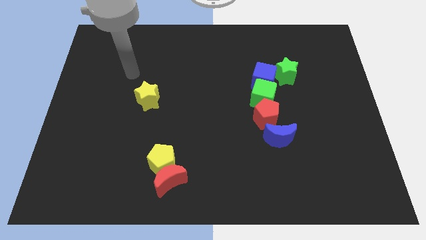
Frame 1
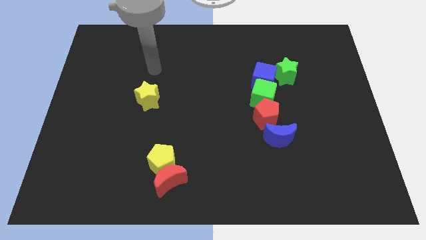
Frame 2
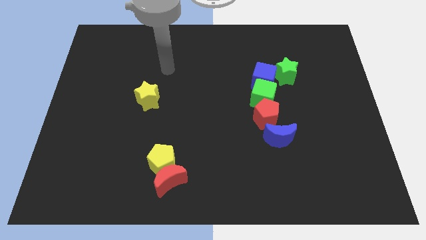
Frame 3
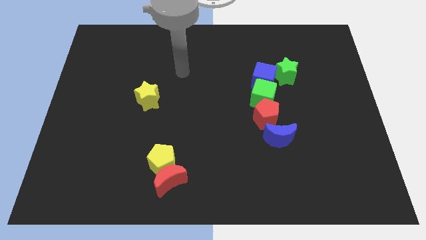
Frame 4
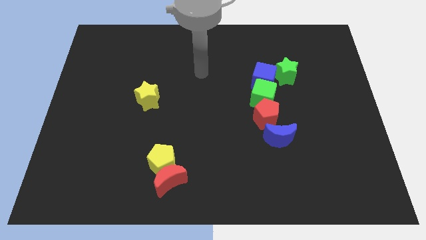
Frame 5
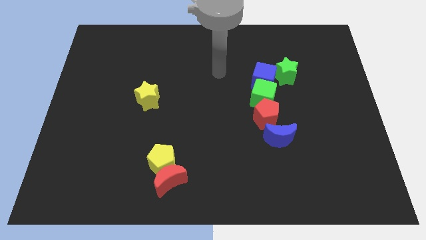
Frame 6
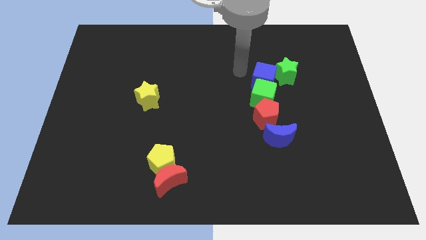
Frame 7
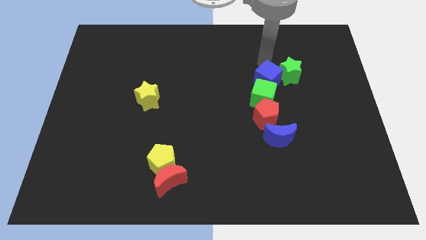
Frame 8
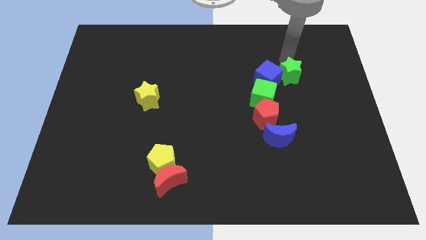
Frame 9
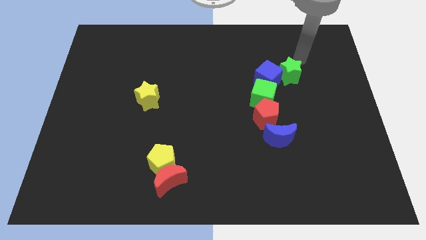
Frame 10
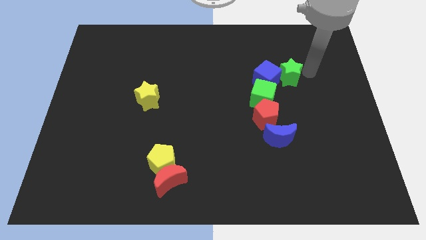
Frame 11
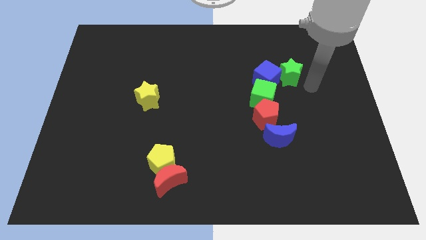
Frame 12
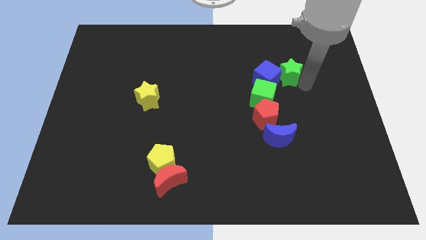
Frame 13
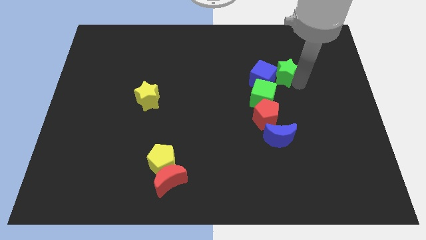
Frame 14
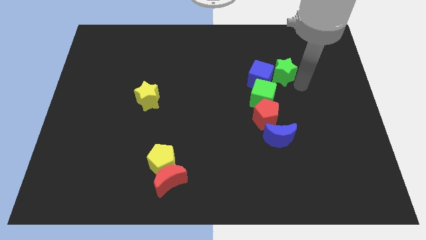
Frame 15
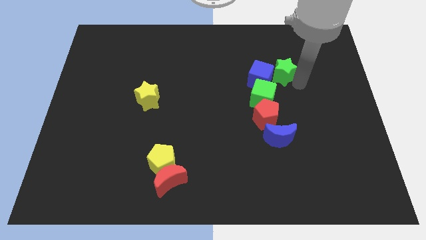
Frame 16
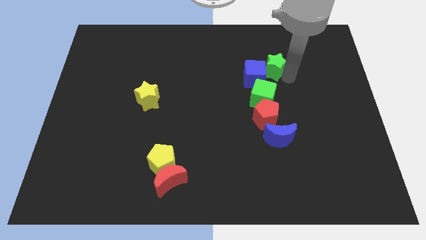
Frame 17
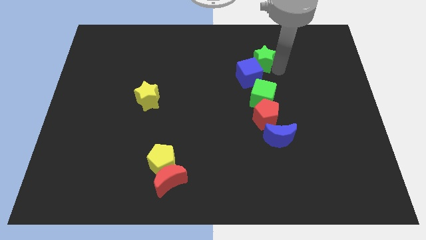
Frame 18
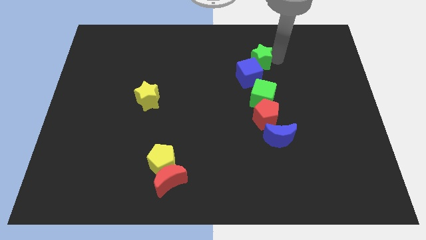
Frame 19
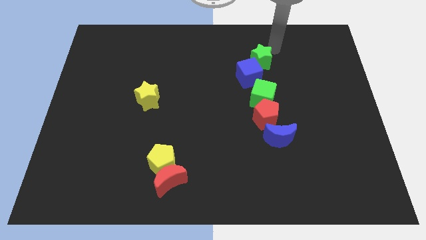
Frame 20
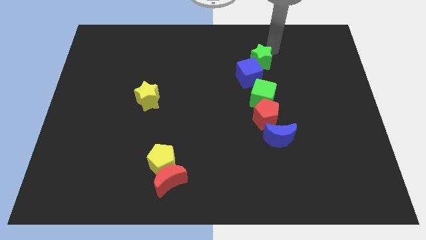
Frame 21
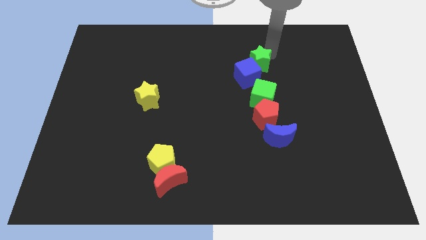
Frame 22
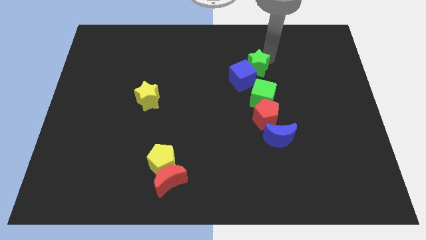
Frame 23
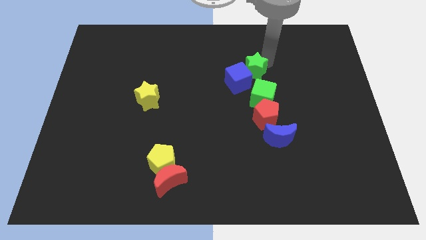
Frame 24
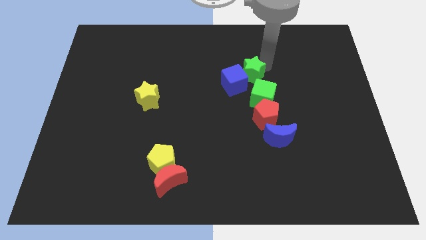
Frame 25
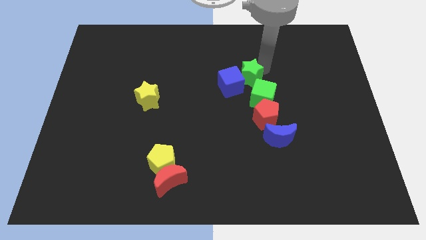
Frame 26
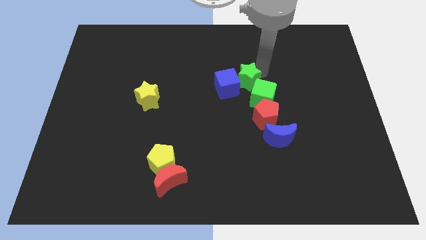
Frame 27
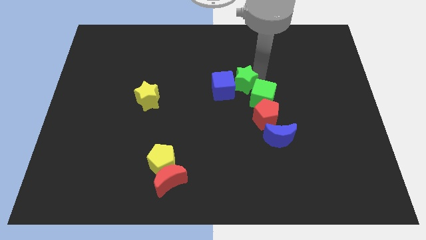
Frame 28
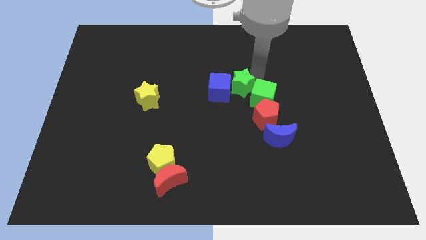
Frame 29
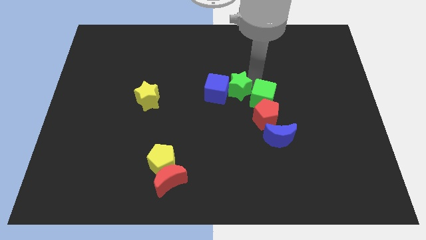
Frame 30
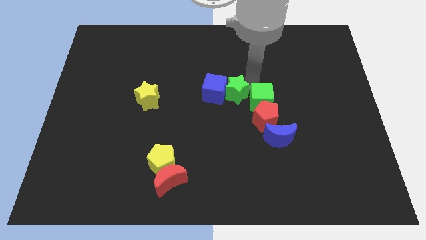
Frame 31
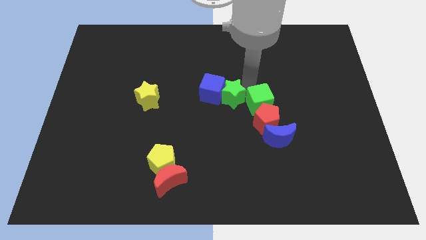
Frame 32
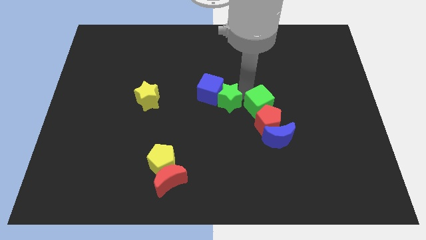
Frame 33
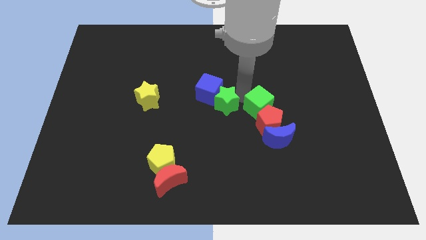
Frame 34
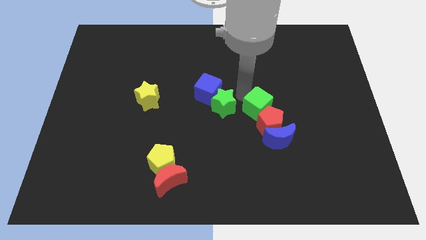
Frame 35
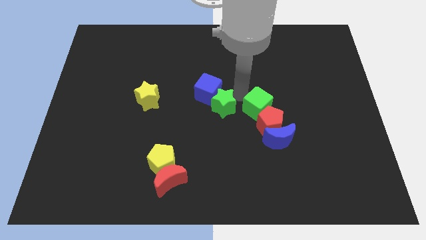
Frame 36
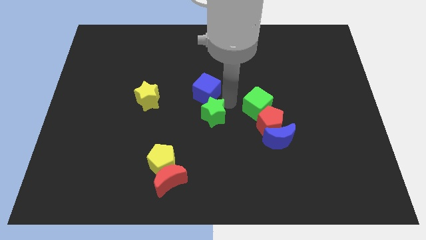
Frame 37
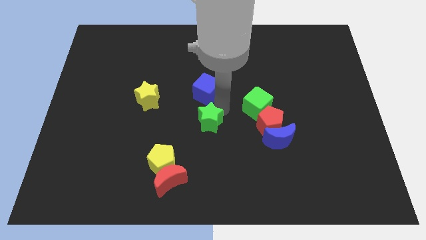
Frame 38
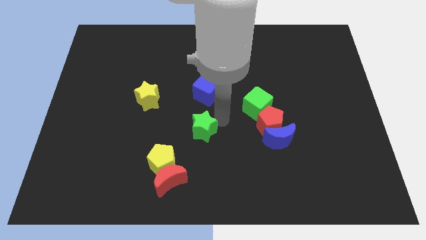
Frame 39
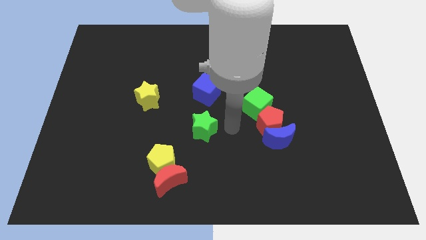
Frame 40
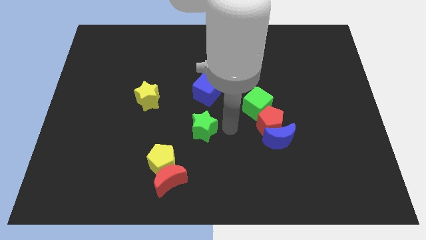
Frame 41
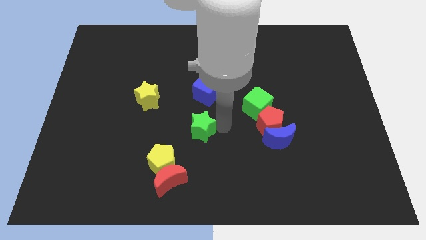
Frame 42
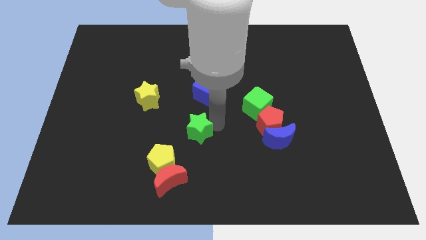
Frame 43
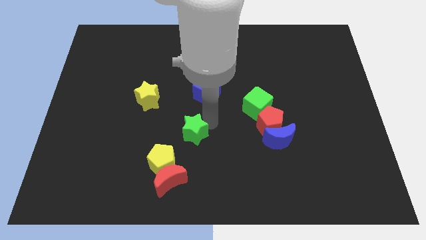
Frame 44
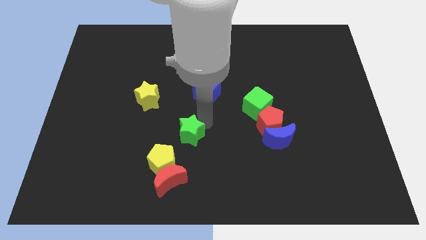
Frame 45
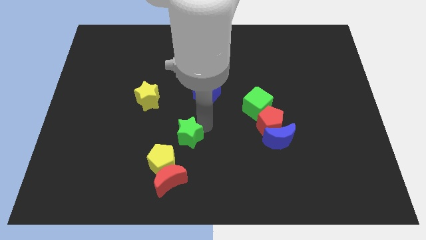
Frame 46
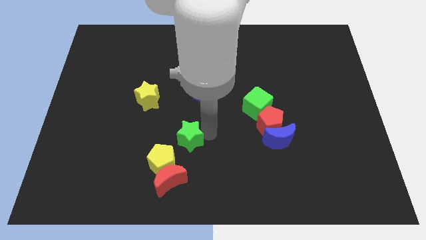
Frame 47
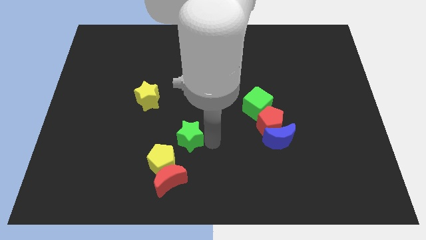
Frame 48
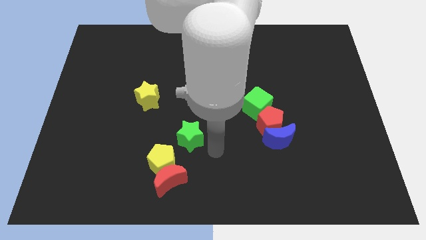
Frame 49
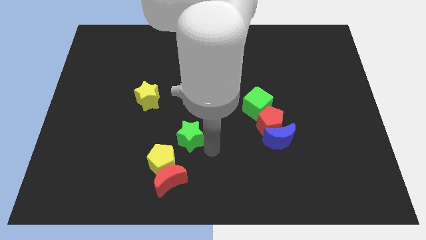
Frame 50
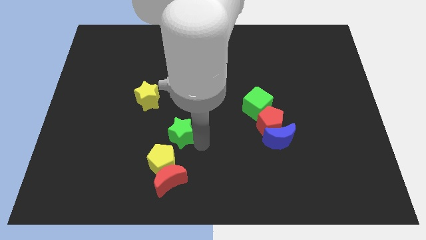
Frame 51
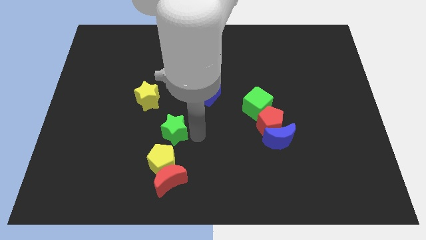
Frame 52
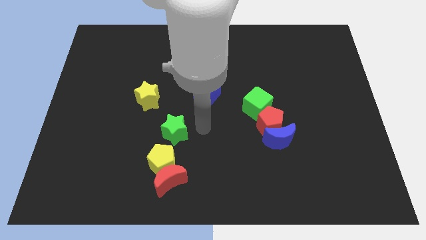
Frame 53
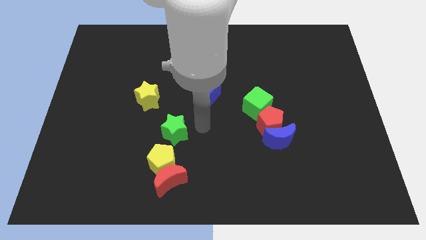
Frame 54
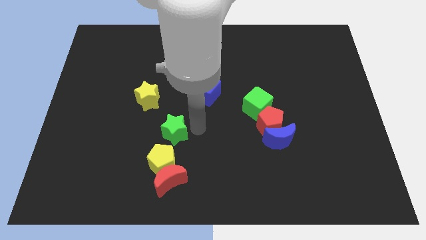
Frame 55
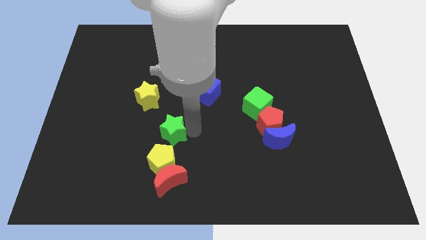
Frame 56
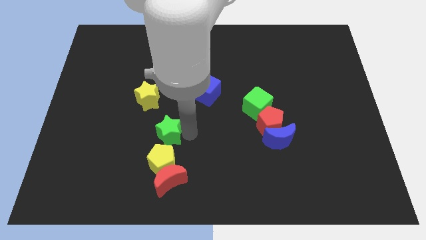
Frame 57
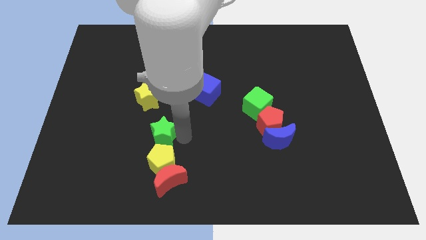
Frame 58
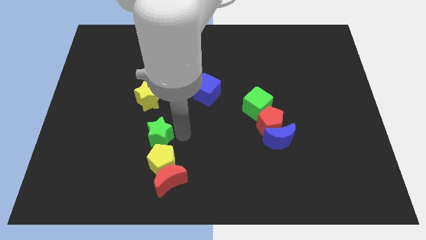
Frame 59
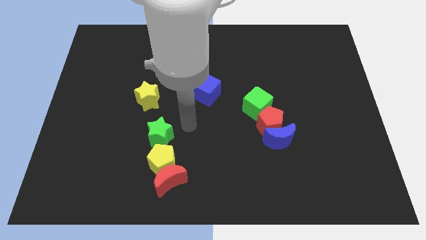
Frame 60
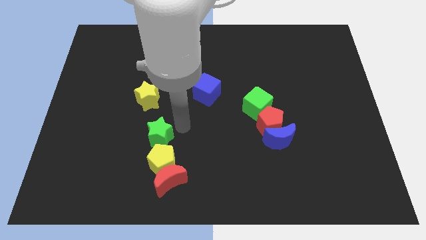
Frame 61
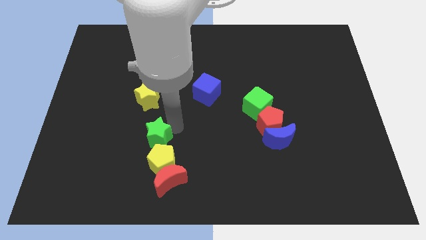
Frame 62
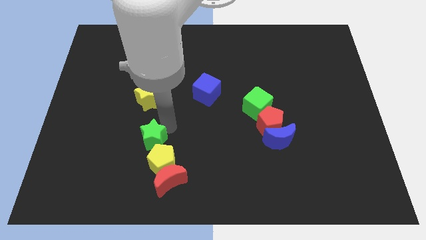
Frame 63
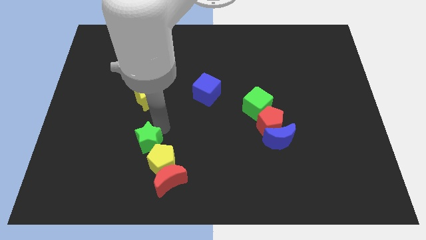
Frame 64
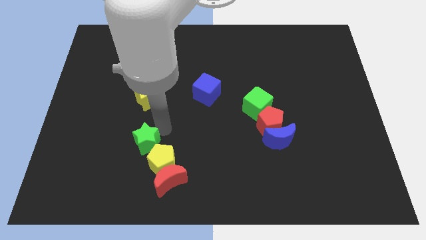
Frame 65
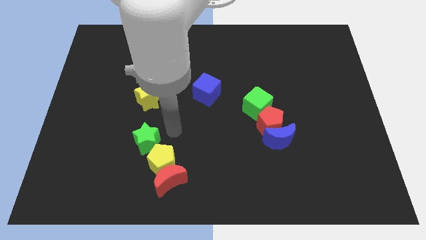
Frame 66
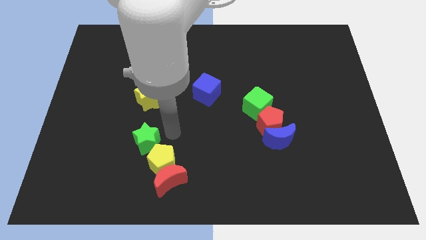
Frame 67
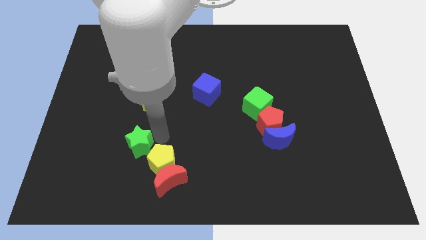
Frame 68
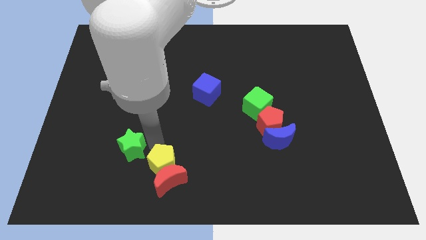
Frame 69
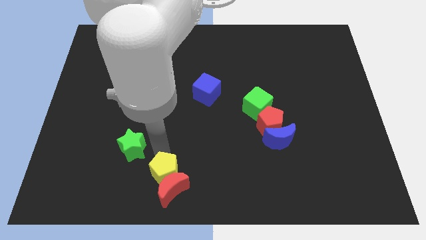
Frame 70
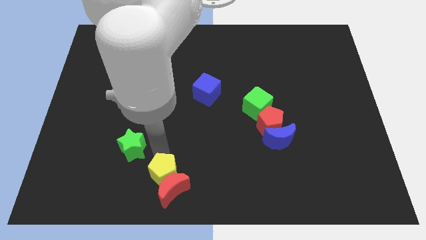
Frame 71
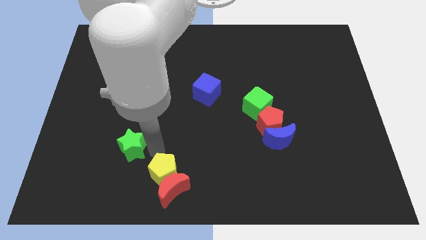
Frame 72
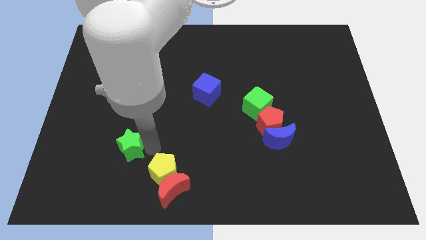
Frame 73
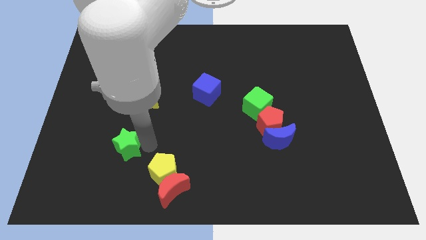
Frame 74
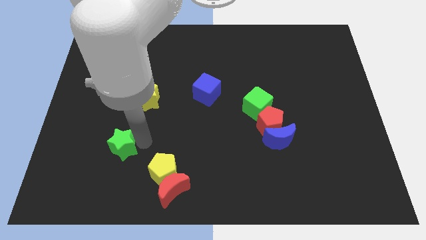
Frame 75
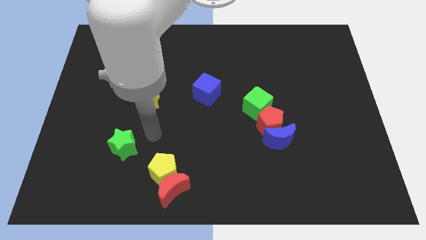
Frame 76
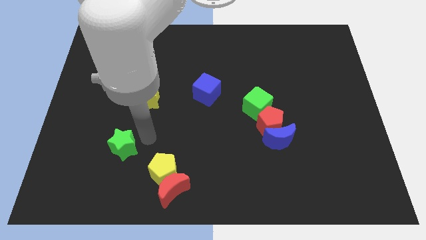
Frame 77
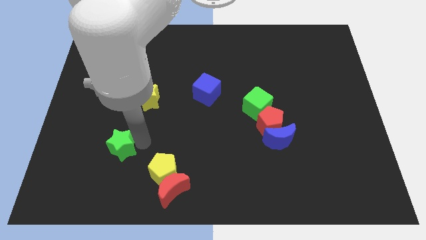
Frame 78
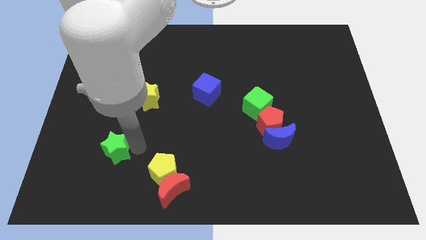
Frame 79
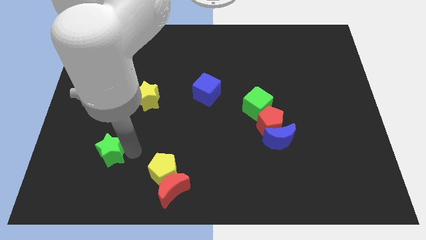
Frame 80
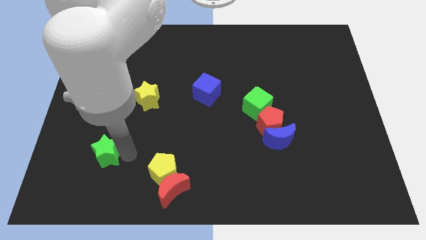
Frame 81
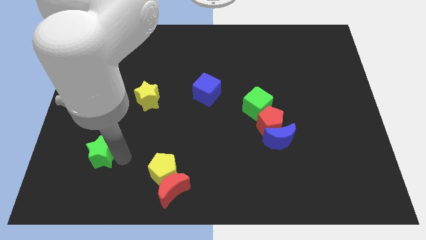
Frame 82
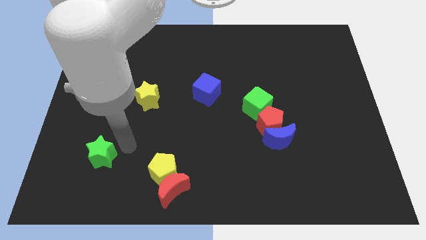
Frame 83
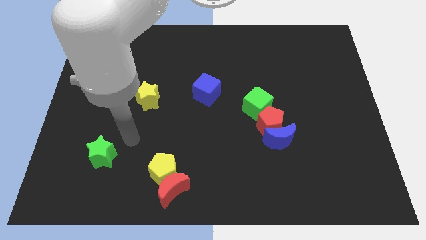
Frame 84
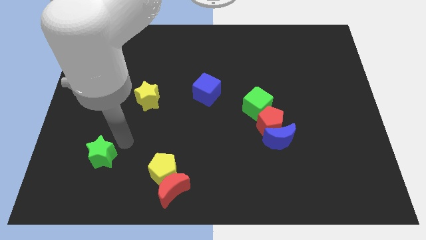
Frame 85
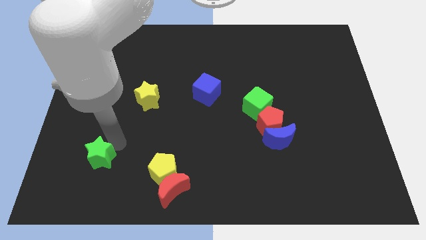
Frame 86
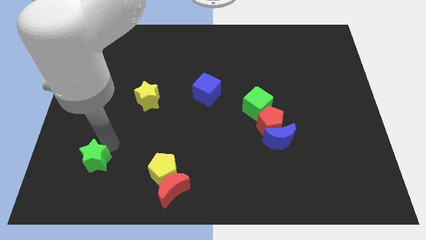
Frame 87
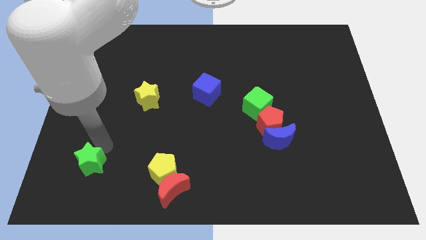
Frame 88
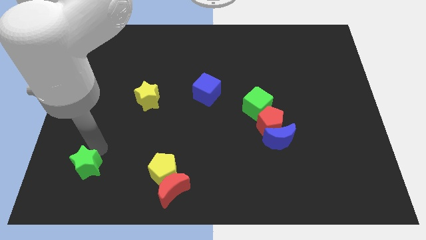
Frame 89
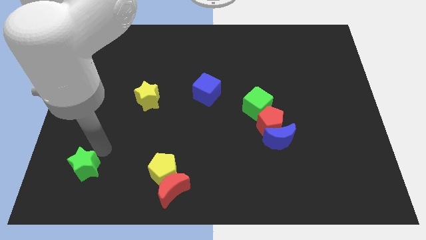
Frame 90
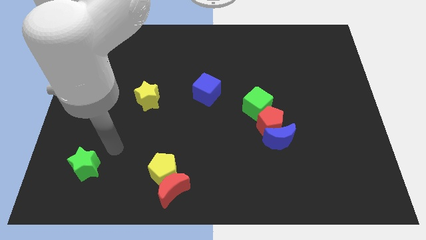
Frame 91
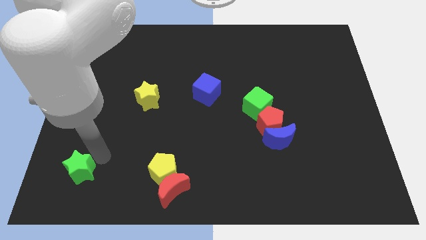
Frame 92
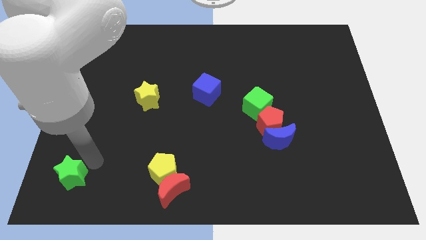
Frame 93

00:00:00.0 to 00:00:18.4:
slide the green star to the bottom left of the board
